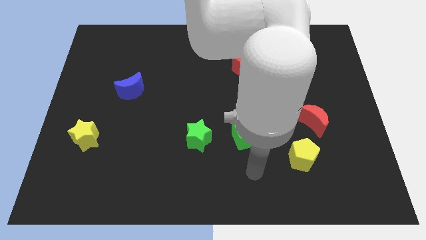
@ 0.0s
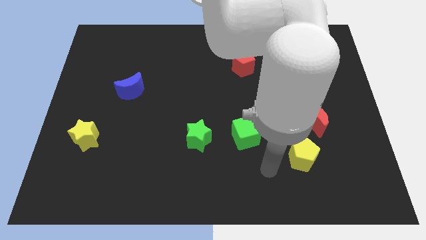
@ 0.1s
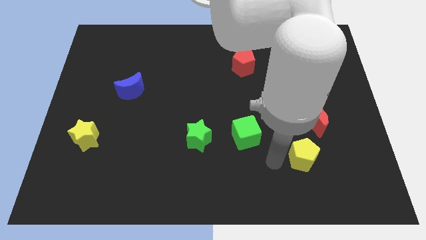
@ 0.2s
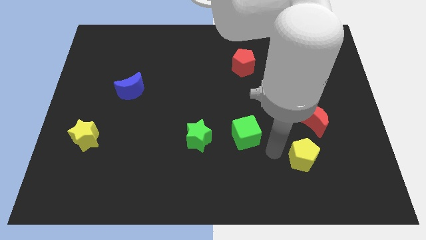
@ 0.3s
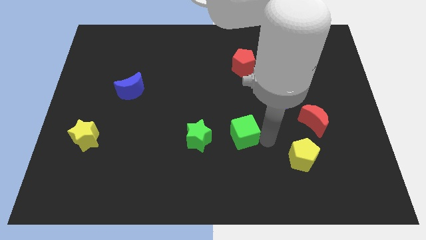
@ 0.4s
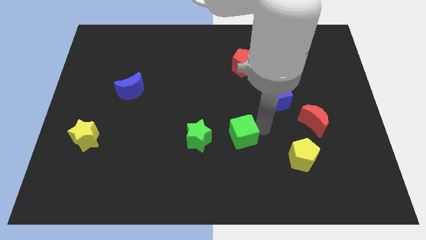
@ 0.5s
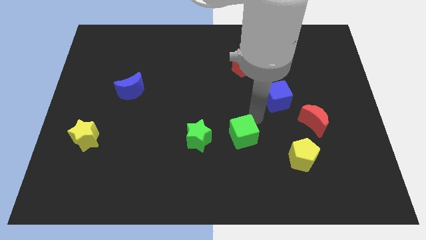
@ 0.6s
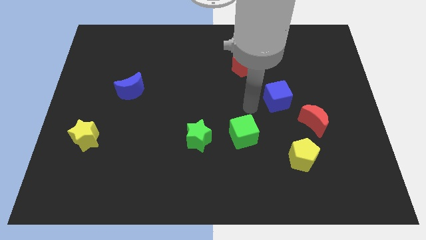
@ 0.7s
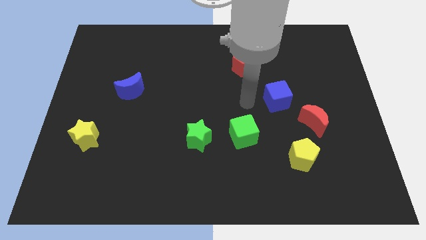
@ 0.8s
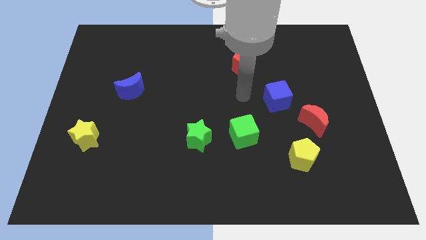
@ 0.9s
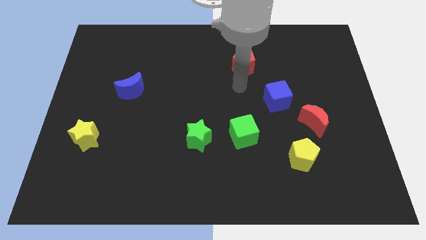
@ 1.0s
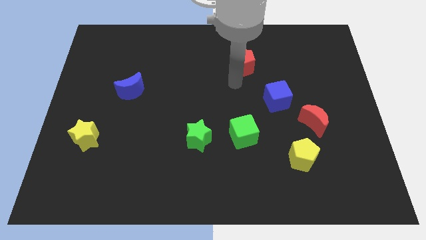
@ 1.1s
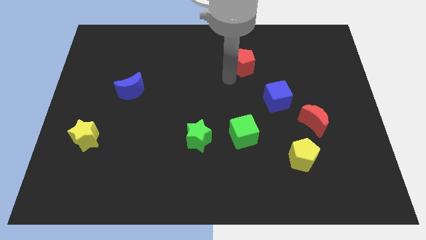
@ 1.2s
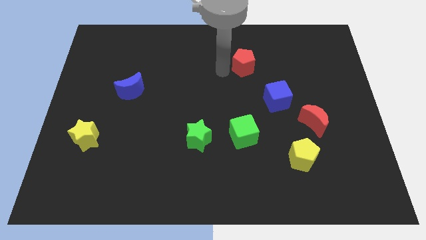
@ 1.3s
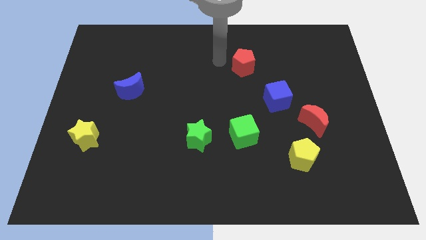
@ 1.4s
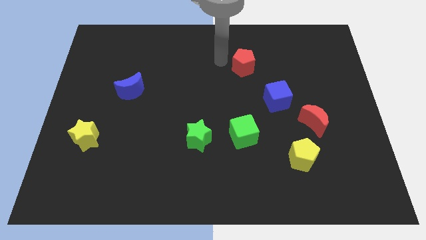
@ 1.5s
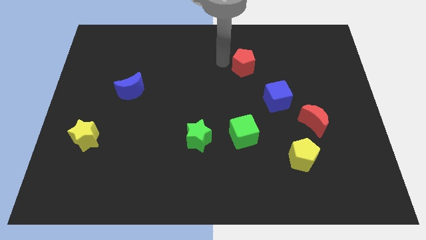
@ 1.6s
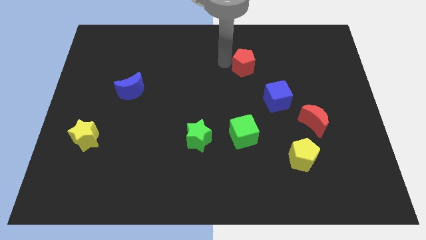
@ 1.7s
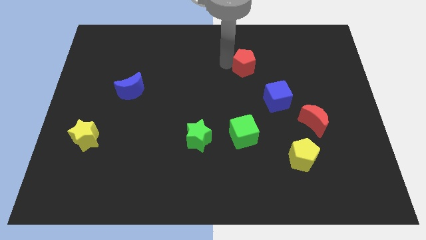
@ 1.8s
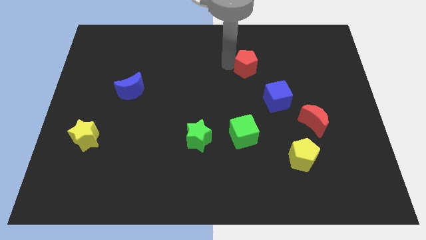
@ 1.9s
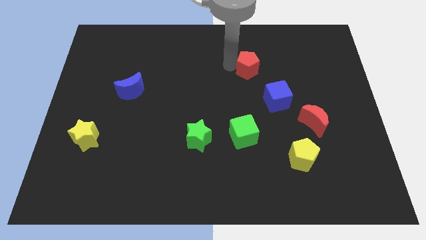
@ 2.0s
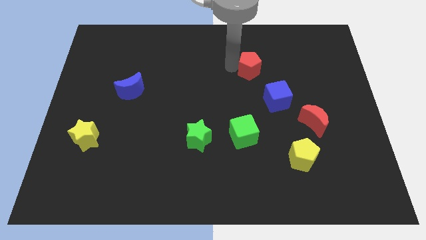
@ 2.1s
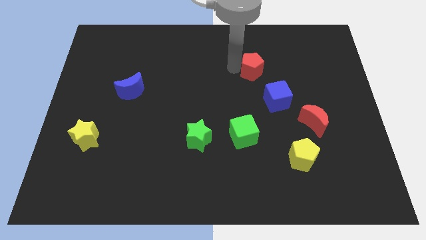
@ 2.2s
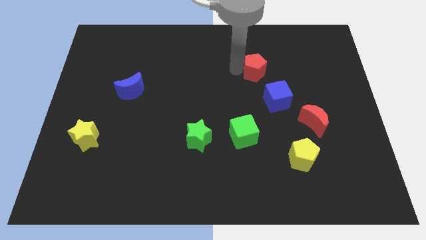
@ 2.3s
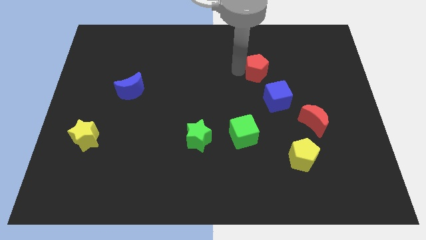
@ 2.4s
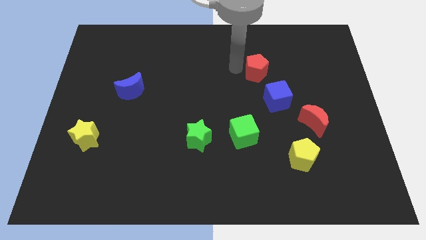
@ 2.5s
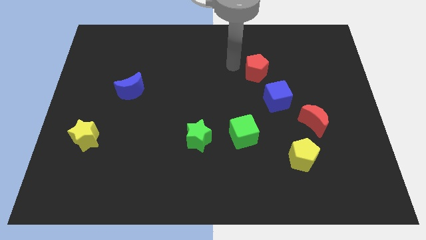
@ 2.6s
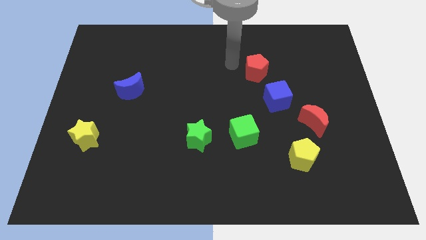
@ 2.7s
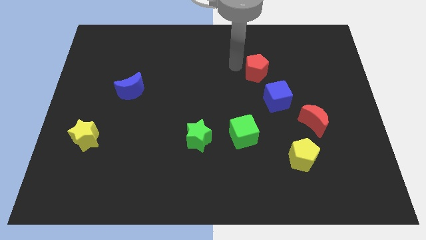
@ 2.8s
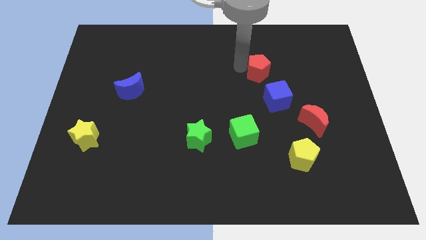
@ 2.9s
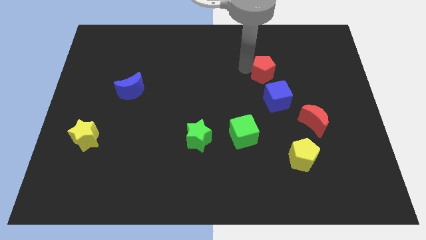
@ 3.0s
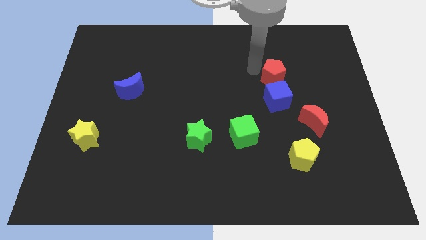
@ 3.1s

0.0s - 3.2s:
slightly push the red pentagon down and right

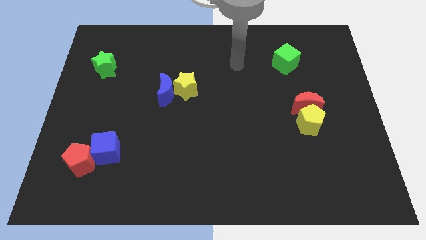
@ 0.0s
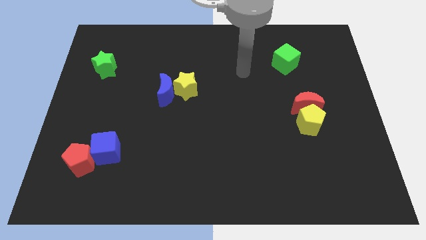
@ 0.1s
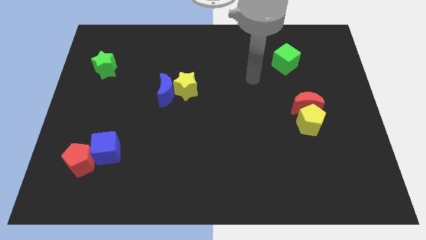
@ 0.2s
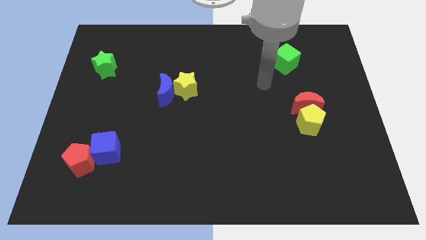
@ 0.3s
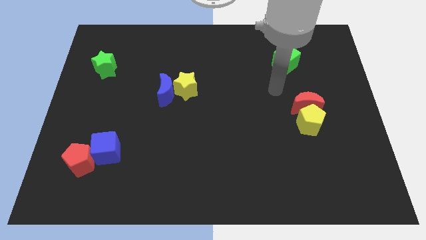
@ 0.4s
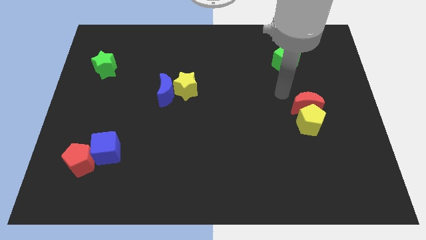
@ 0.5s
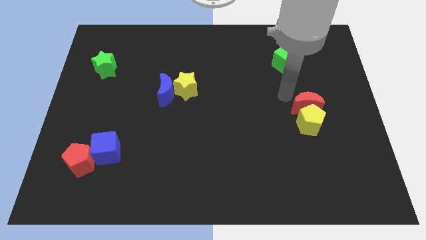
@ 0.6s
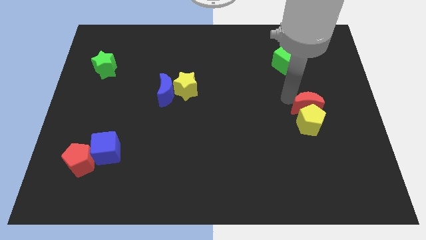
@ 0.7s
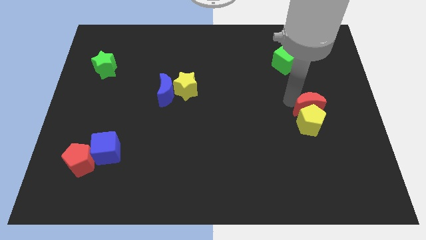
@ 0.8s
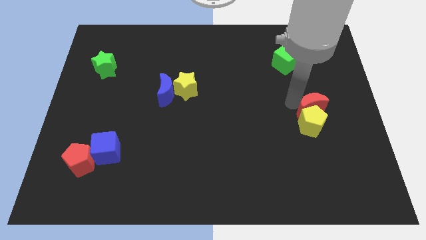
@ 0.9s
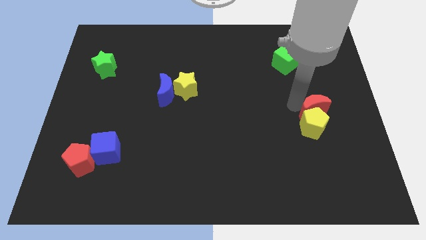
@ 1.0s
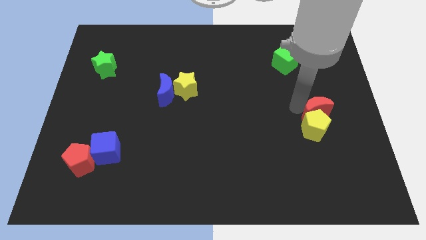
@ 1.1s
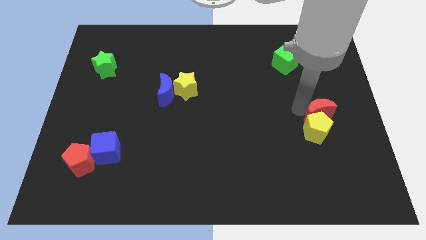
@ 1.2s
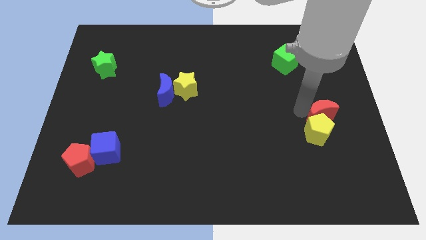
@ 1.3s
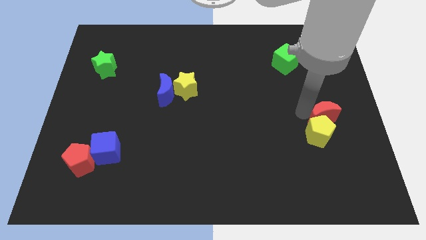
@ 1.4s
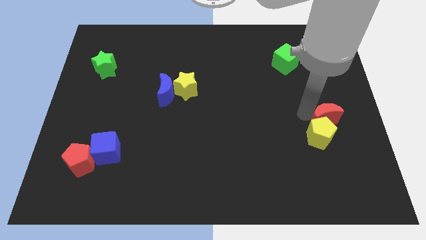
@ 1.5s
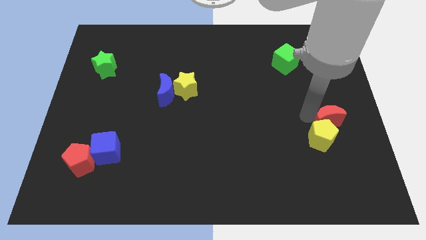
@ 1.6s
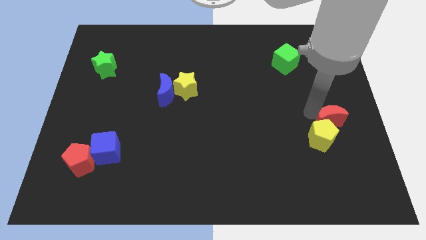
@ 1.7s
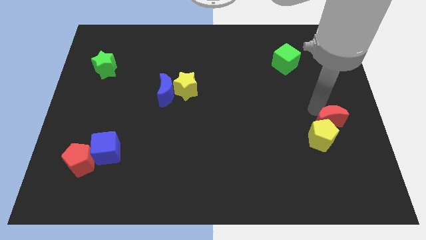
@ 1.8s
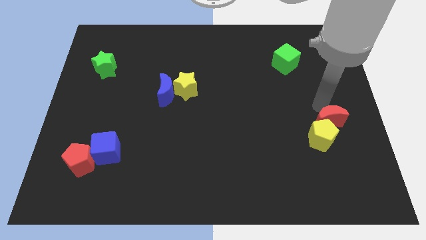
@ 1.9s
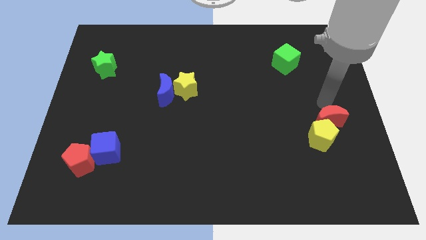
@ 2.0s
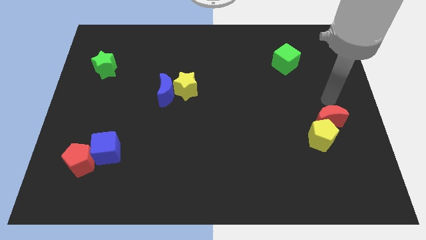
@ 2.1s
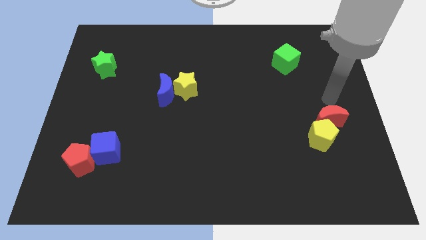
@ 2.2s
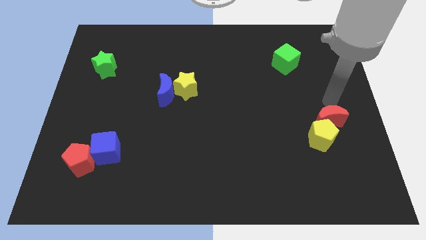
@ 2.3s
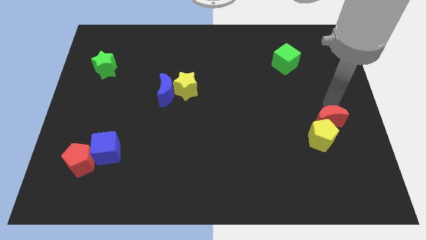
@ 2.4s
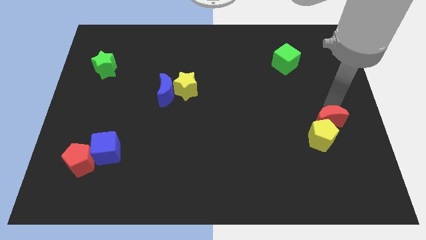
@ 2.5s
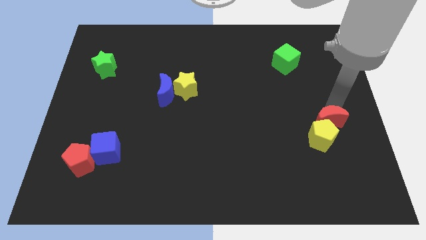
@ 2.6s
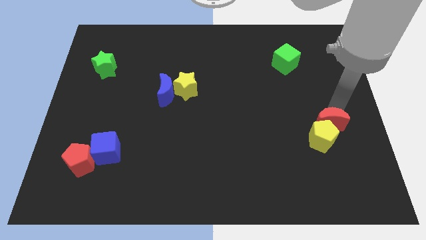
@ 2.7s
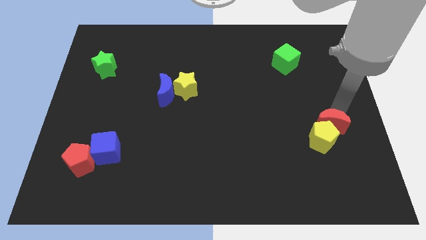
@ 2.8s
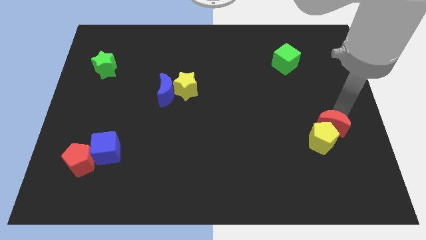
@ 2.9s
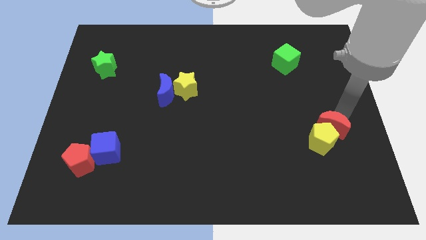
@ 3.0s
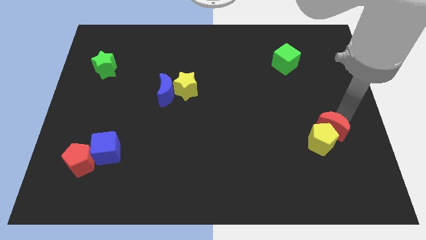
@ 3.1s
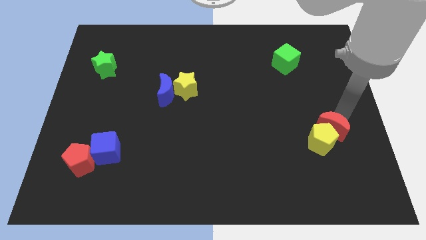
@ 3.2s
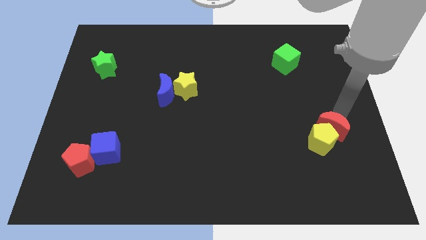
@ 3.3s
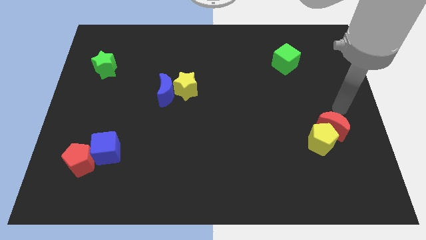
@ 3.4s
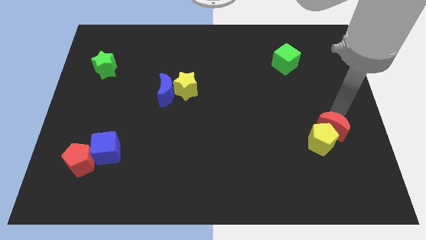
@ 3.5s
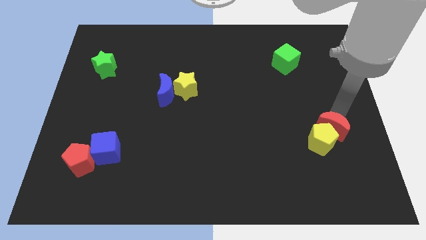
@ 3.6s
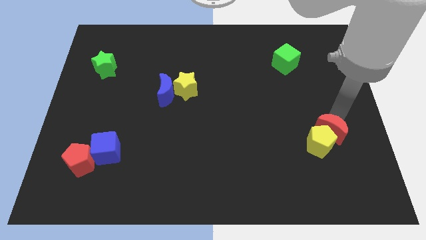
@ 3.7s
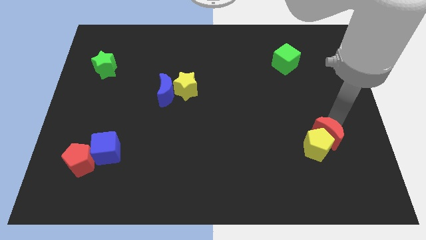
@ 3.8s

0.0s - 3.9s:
slightly move the red moon down

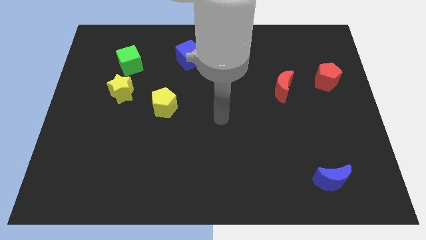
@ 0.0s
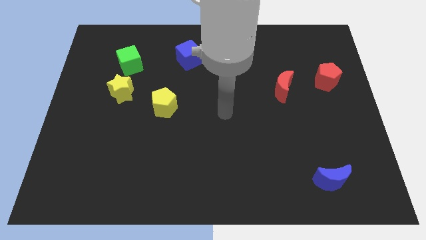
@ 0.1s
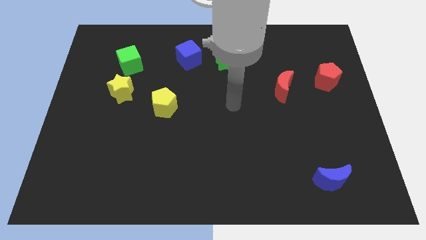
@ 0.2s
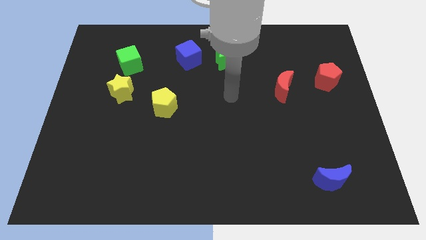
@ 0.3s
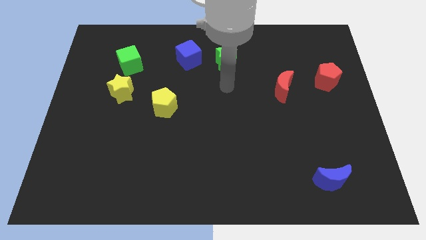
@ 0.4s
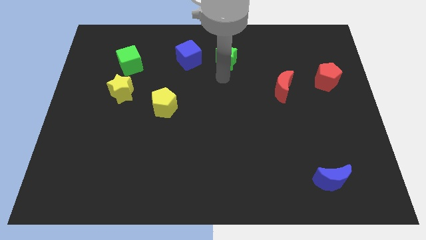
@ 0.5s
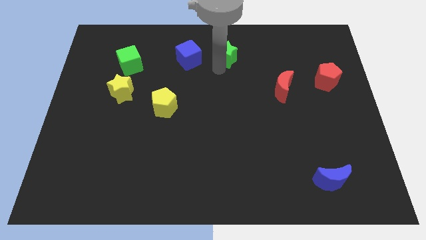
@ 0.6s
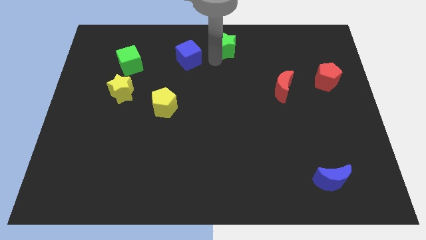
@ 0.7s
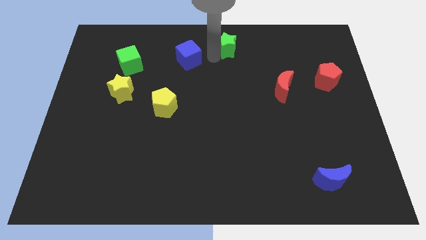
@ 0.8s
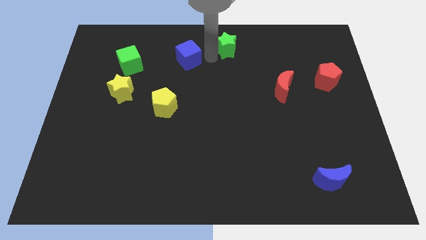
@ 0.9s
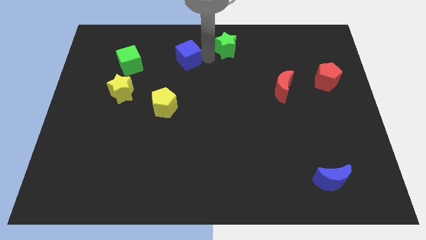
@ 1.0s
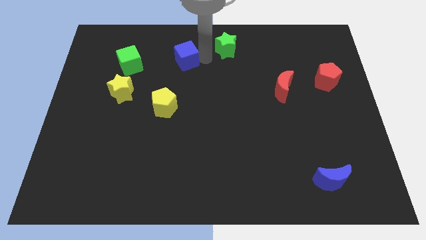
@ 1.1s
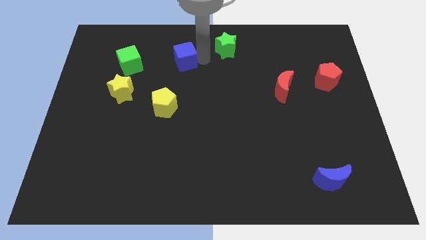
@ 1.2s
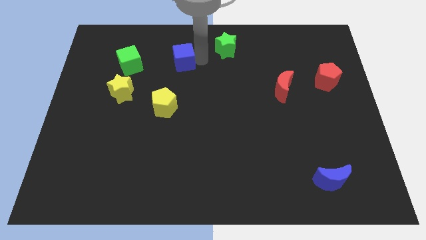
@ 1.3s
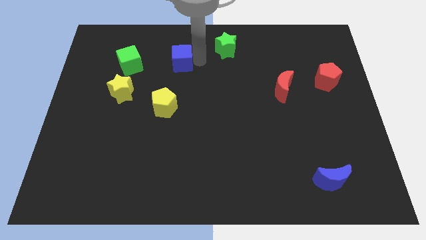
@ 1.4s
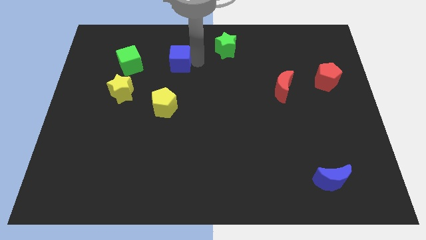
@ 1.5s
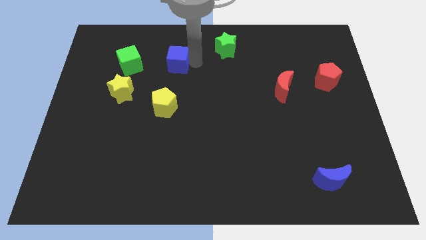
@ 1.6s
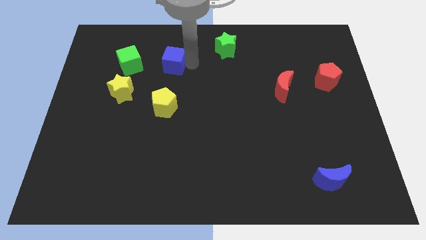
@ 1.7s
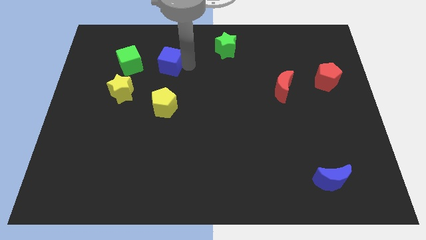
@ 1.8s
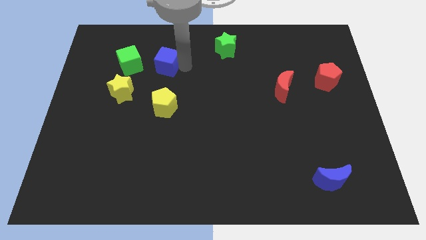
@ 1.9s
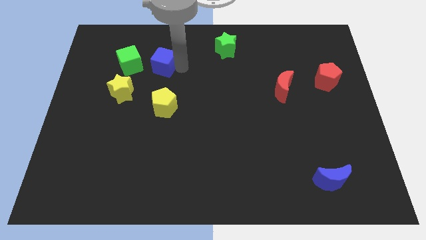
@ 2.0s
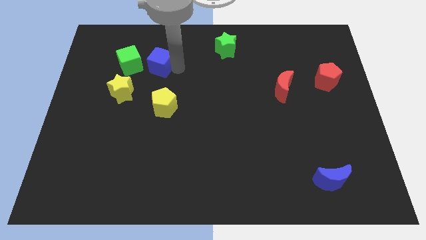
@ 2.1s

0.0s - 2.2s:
slide the blue cube somewhat left
